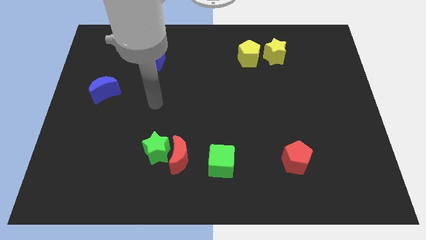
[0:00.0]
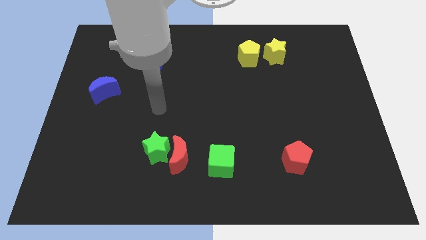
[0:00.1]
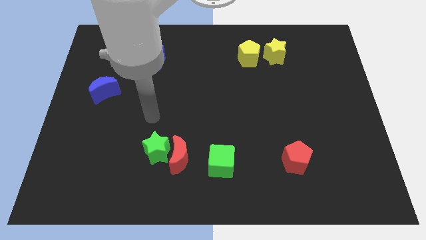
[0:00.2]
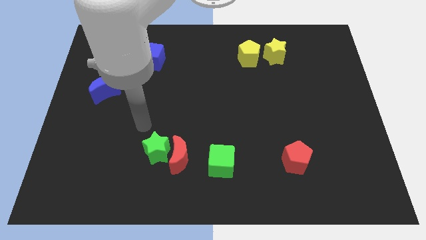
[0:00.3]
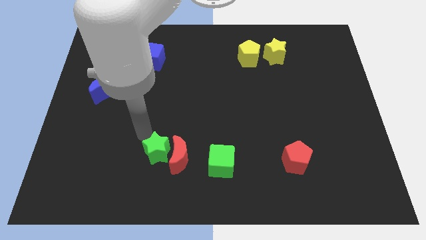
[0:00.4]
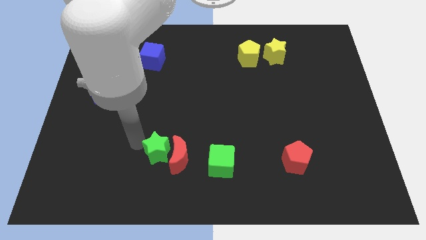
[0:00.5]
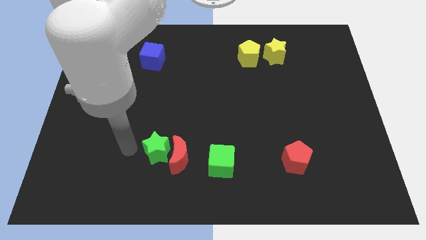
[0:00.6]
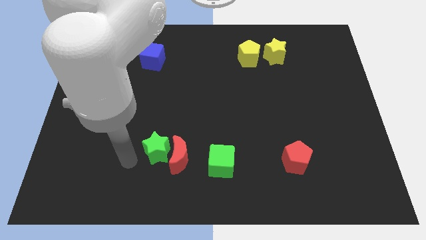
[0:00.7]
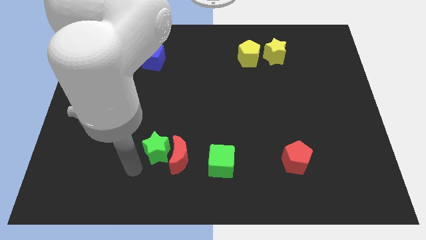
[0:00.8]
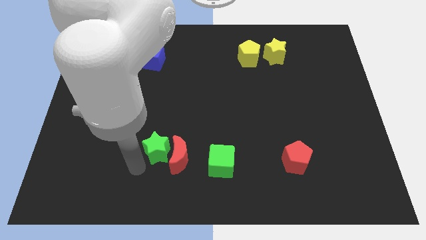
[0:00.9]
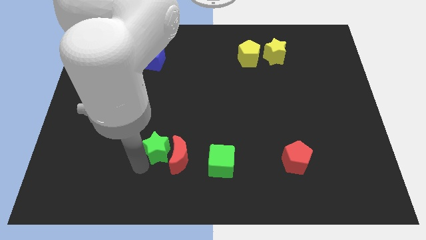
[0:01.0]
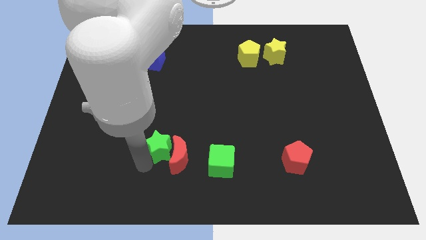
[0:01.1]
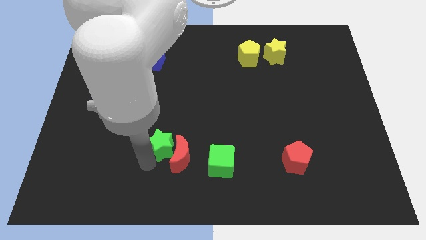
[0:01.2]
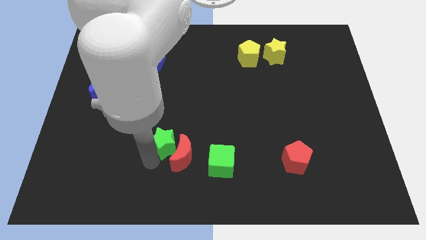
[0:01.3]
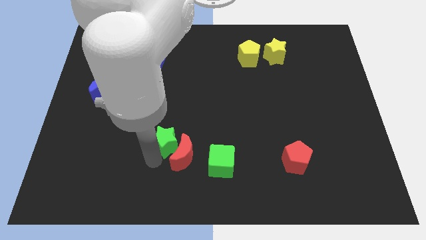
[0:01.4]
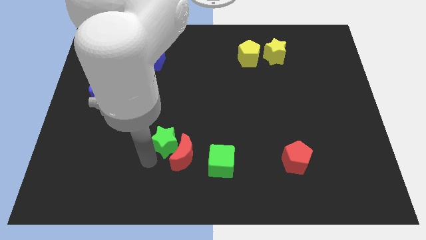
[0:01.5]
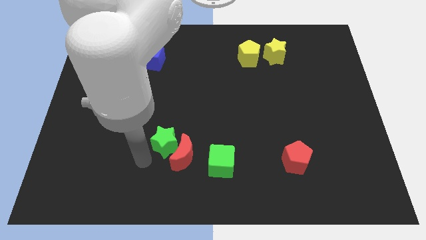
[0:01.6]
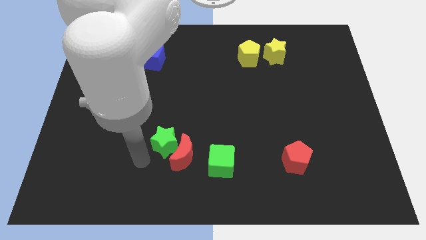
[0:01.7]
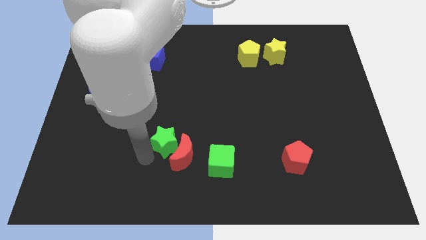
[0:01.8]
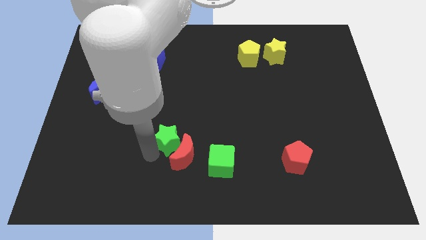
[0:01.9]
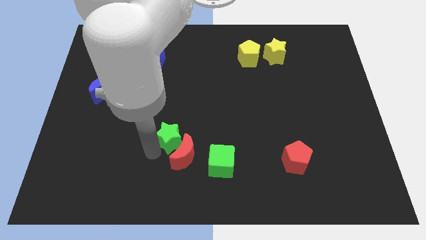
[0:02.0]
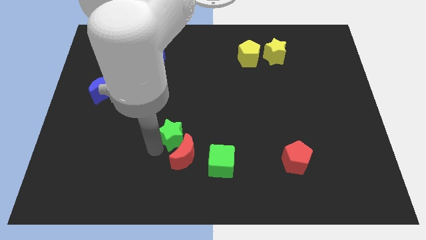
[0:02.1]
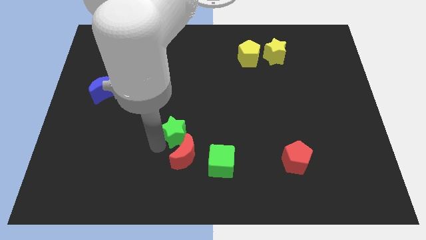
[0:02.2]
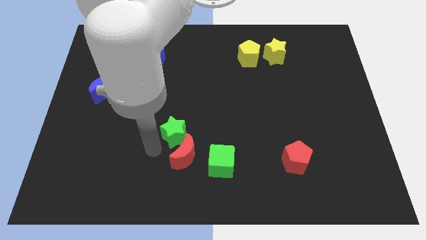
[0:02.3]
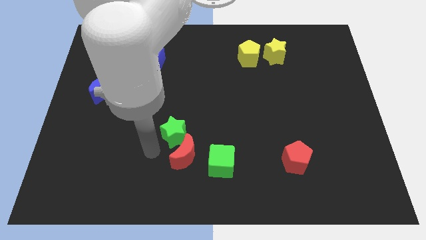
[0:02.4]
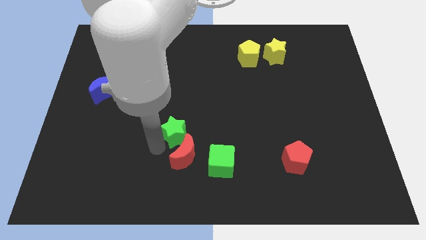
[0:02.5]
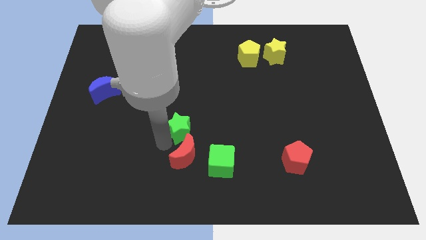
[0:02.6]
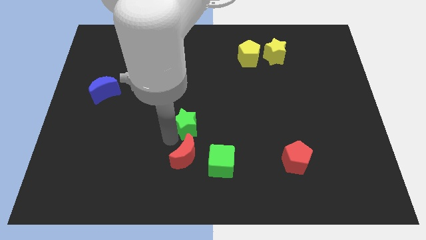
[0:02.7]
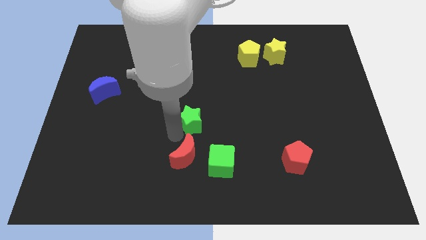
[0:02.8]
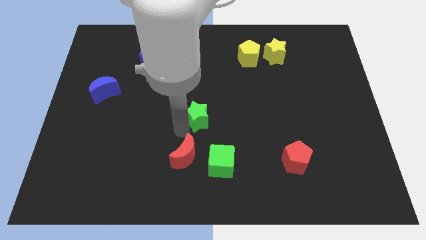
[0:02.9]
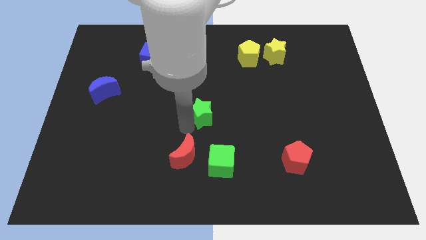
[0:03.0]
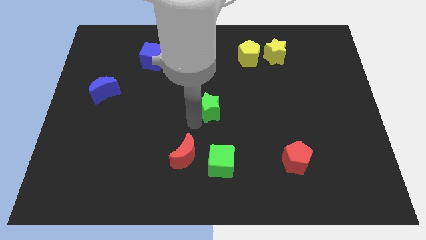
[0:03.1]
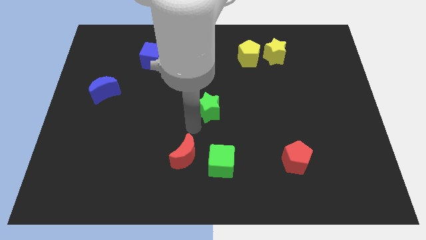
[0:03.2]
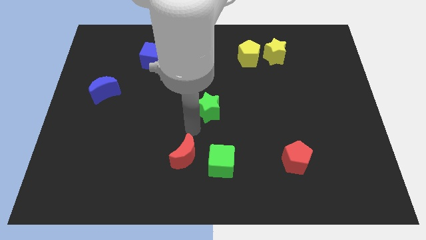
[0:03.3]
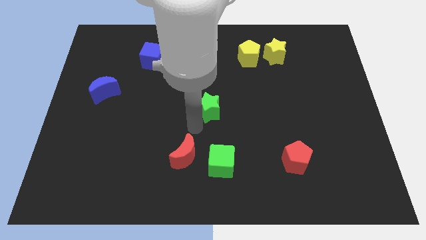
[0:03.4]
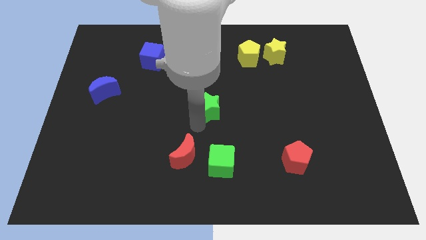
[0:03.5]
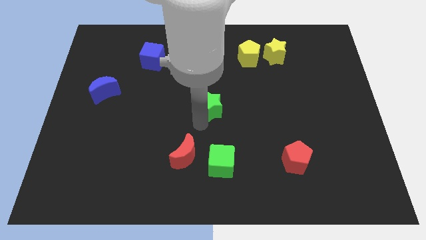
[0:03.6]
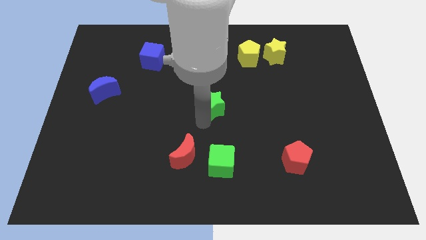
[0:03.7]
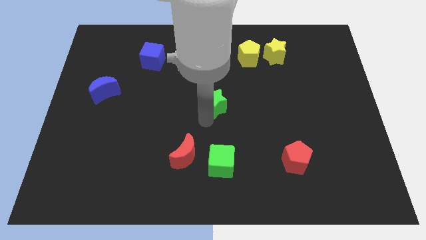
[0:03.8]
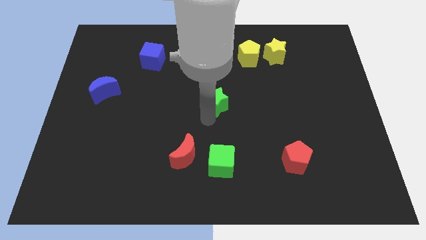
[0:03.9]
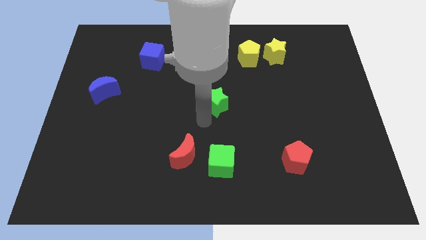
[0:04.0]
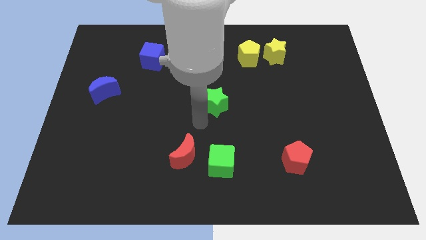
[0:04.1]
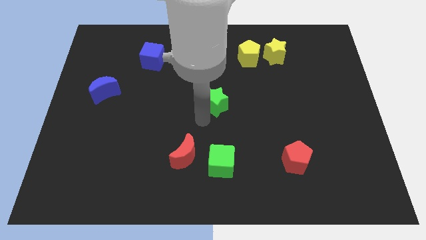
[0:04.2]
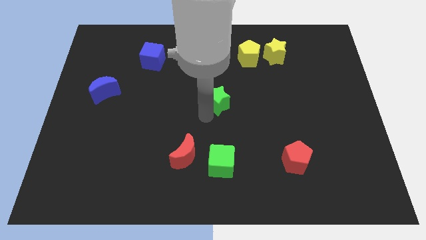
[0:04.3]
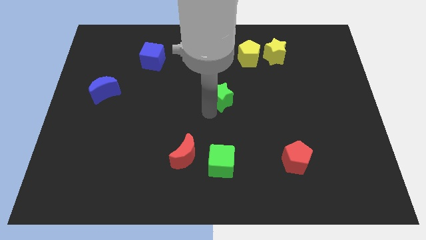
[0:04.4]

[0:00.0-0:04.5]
move the green star up and then to the right

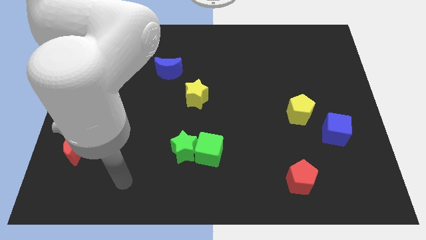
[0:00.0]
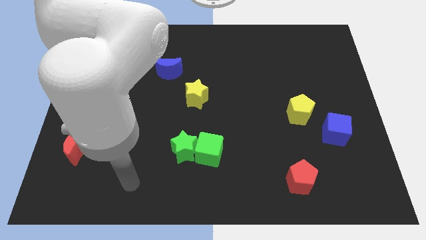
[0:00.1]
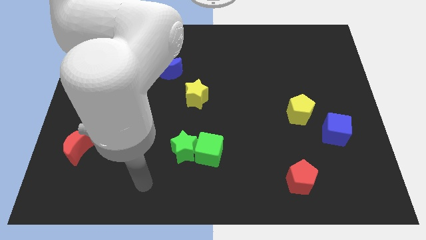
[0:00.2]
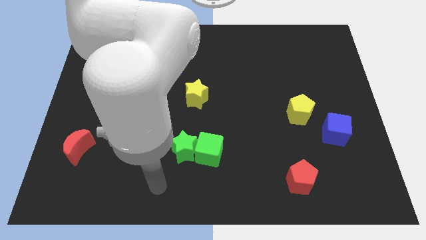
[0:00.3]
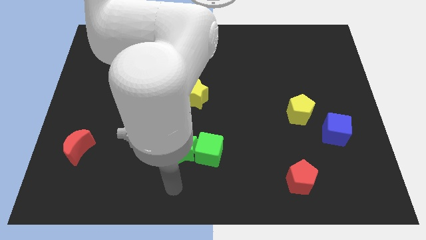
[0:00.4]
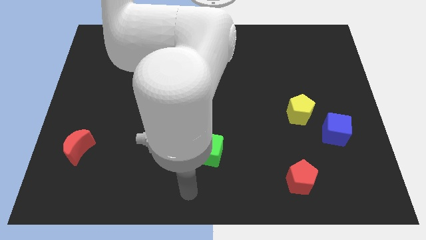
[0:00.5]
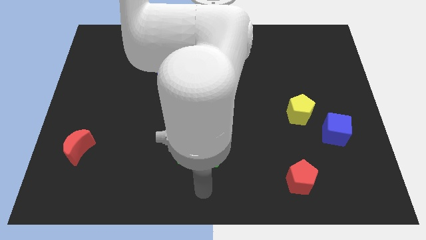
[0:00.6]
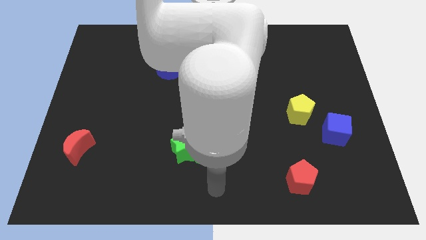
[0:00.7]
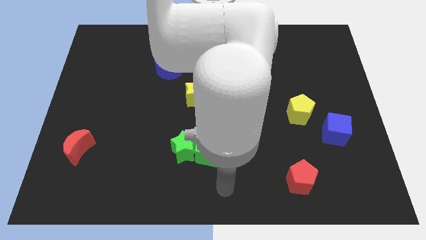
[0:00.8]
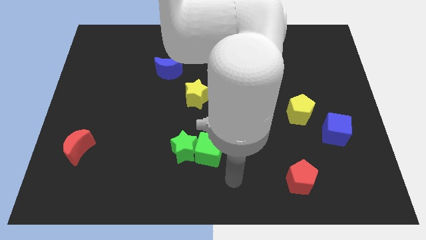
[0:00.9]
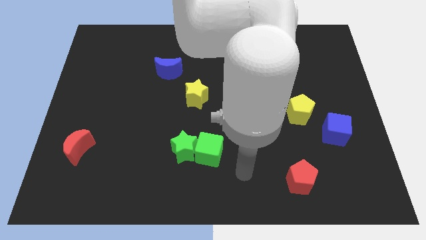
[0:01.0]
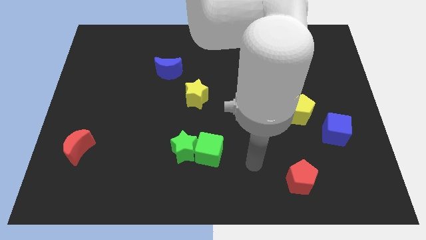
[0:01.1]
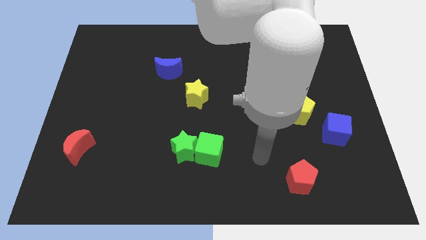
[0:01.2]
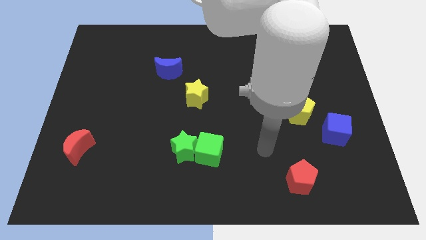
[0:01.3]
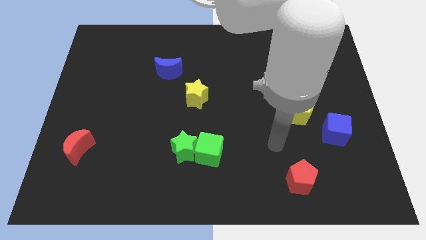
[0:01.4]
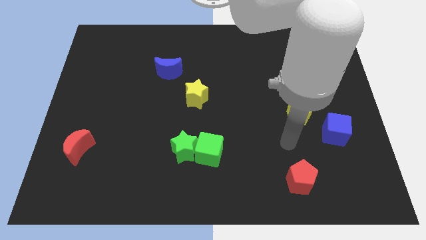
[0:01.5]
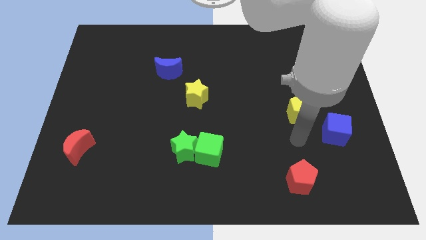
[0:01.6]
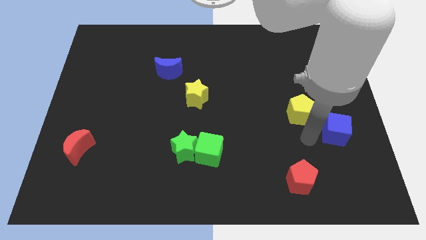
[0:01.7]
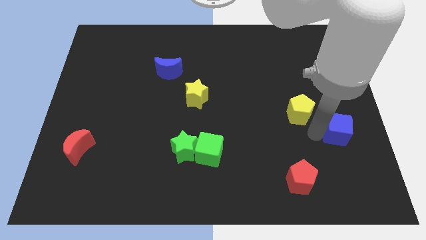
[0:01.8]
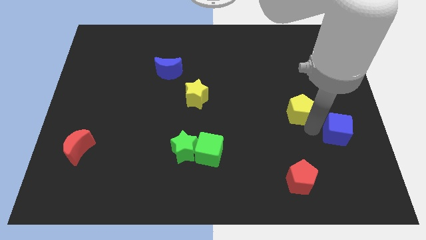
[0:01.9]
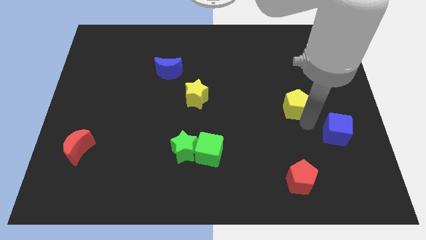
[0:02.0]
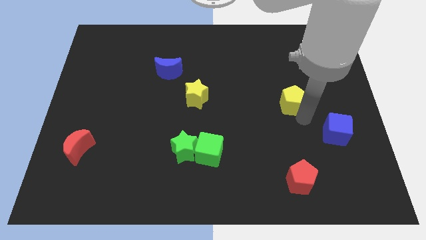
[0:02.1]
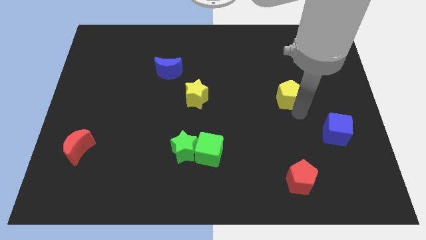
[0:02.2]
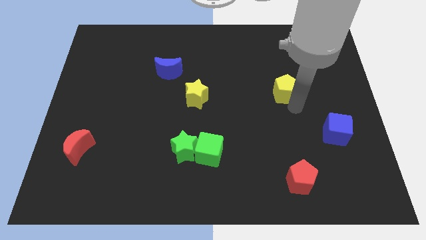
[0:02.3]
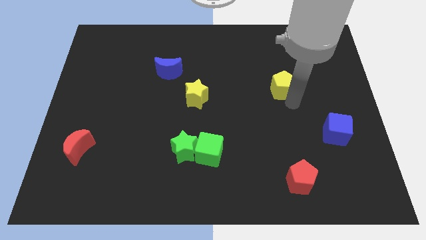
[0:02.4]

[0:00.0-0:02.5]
slightly slide the yellow pentagon upwards and then left

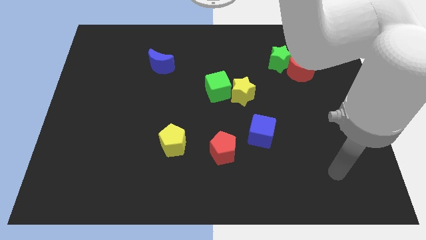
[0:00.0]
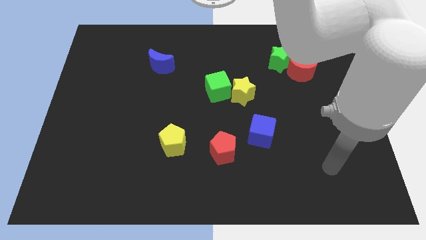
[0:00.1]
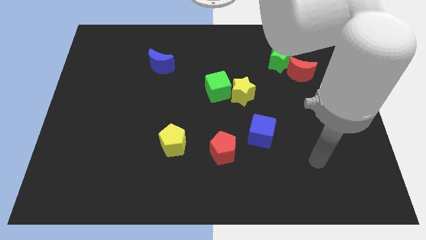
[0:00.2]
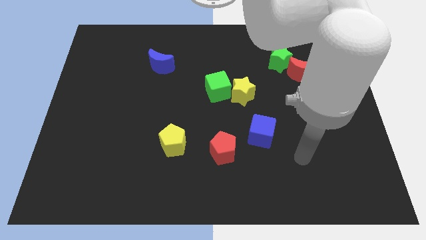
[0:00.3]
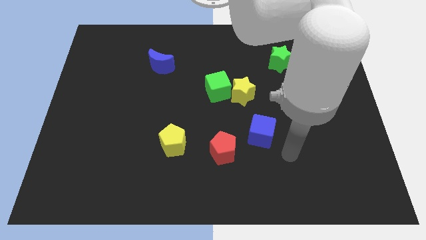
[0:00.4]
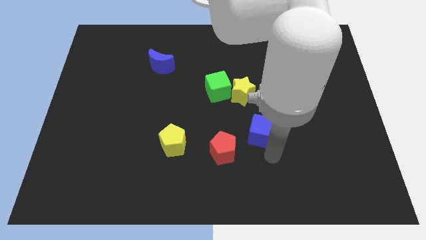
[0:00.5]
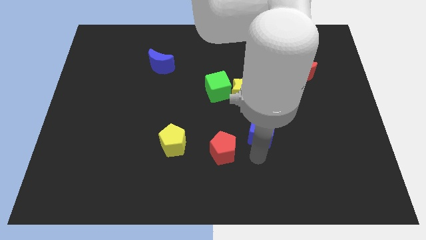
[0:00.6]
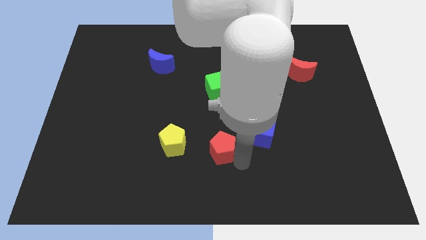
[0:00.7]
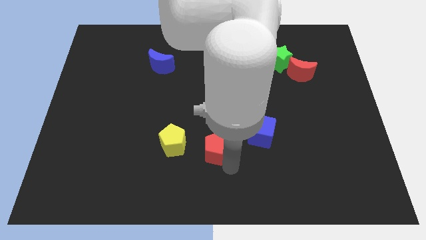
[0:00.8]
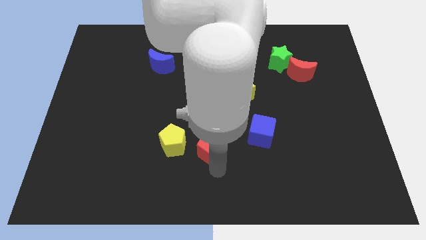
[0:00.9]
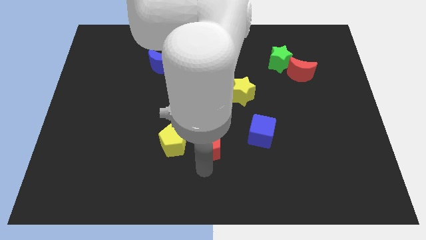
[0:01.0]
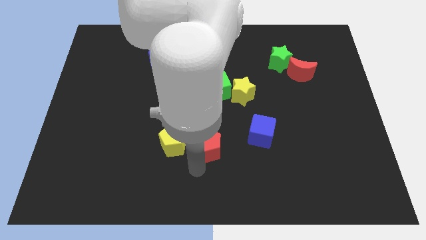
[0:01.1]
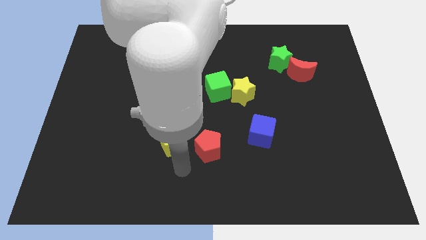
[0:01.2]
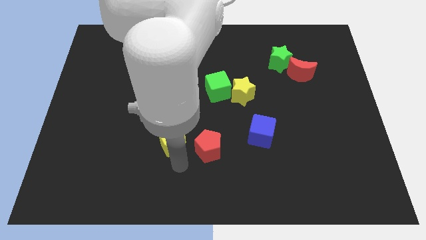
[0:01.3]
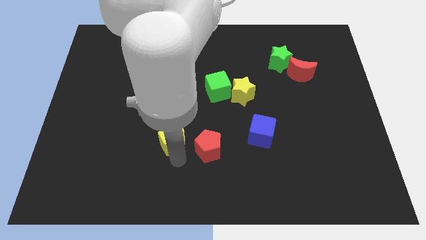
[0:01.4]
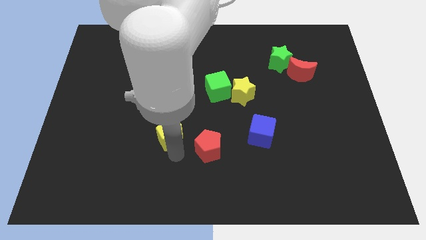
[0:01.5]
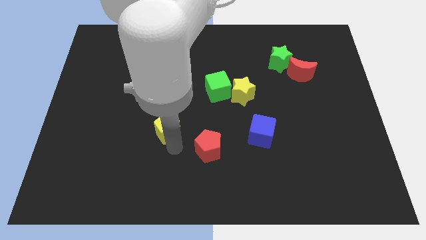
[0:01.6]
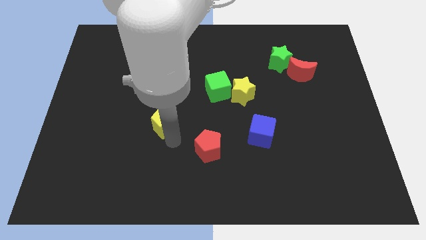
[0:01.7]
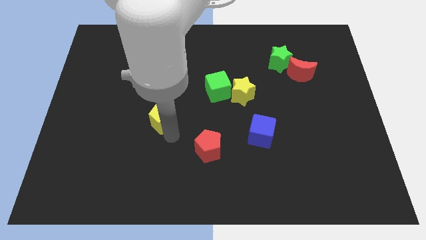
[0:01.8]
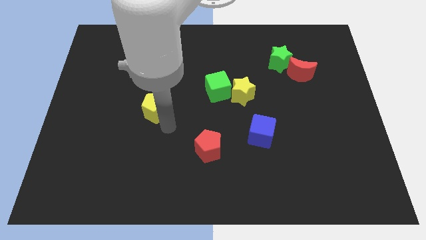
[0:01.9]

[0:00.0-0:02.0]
move the yellow pentagon upwards and left a little bit
